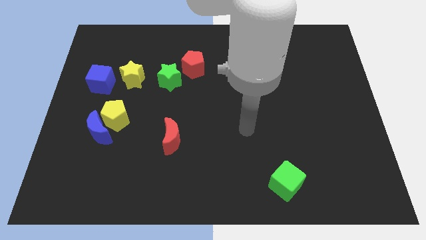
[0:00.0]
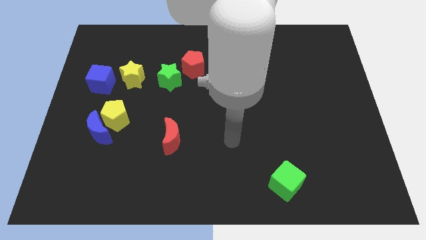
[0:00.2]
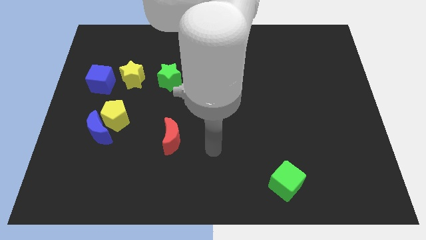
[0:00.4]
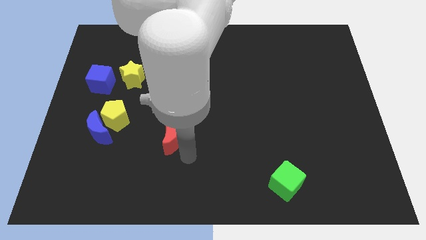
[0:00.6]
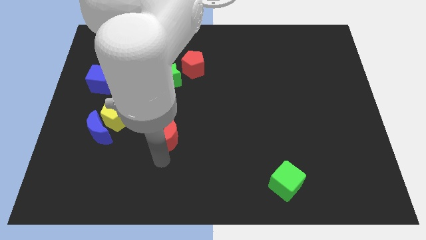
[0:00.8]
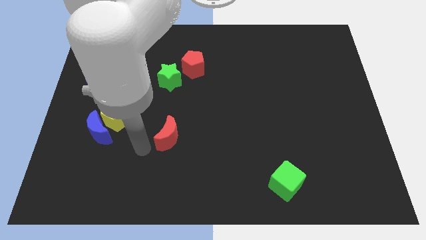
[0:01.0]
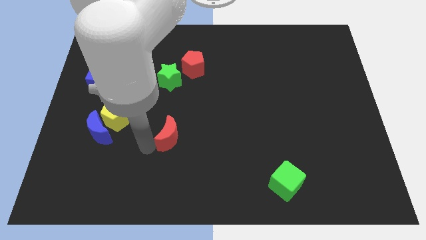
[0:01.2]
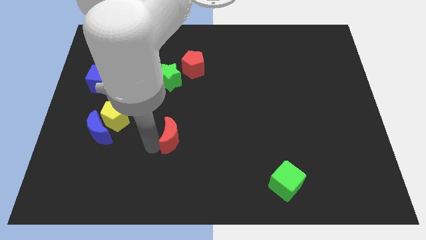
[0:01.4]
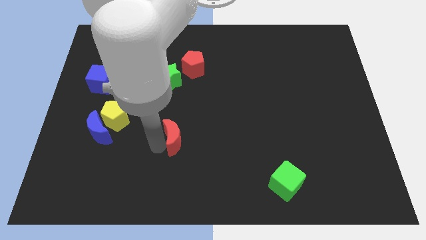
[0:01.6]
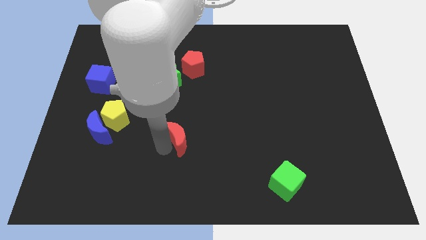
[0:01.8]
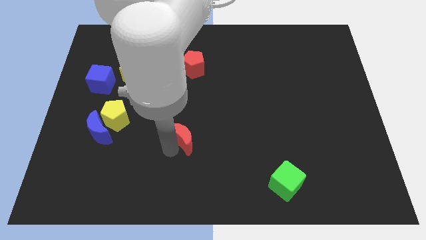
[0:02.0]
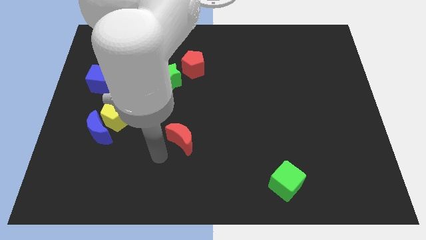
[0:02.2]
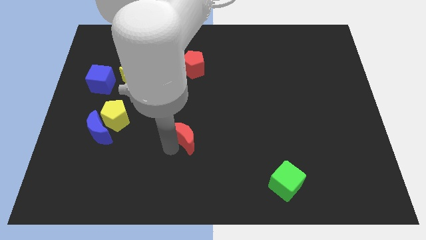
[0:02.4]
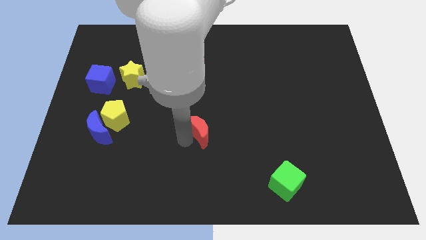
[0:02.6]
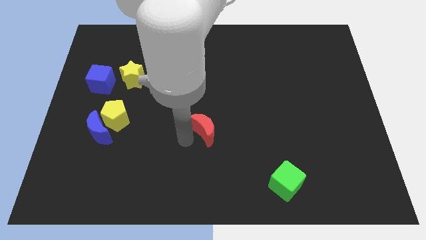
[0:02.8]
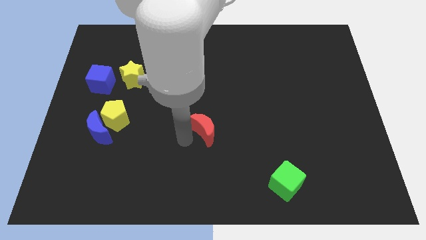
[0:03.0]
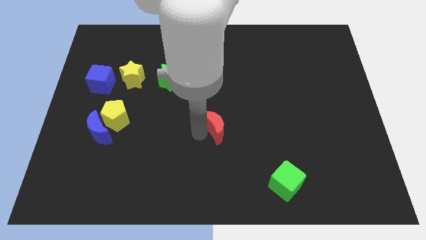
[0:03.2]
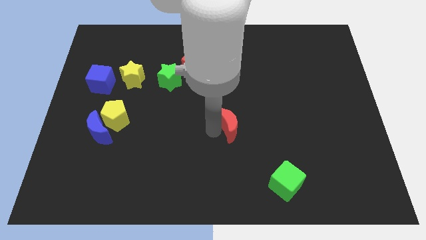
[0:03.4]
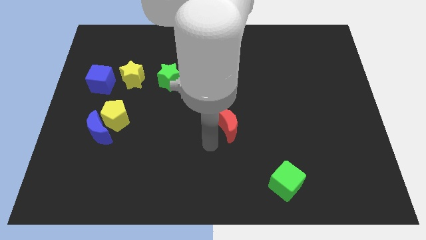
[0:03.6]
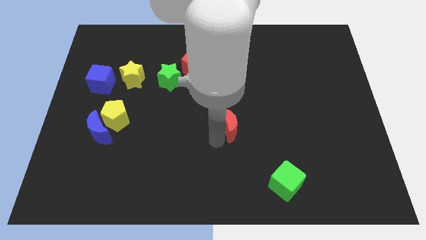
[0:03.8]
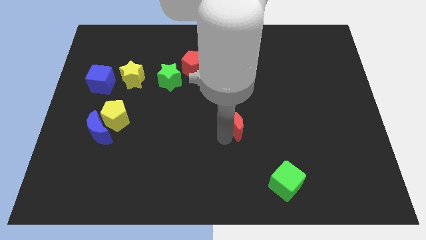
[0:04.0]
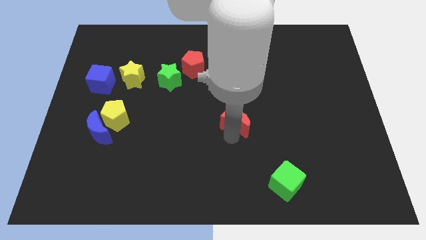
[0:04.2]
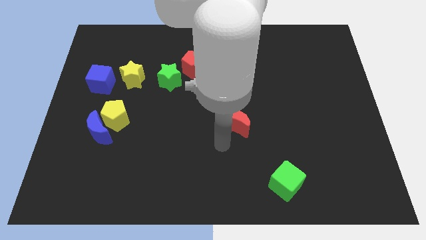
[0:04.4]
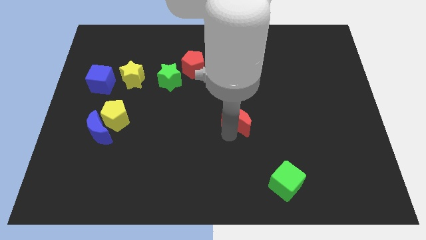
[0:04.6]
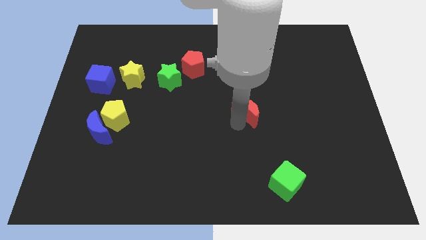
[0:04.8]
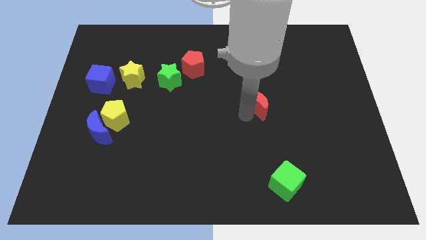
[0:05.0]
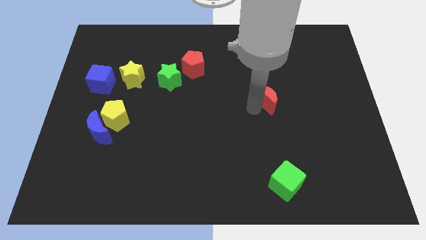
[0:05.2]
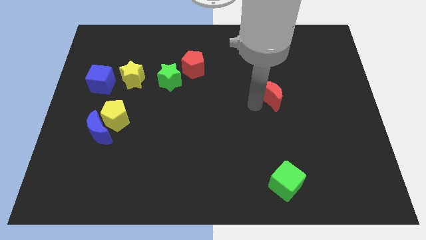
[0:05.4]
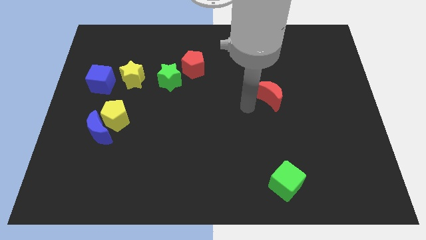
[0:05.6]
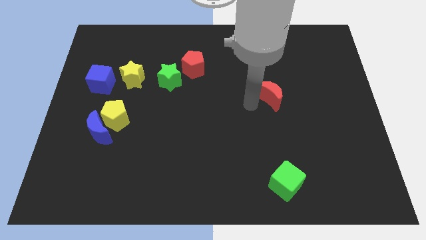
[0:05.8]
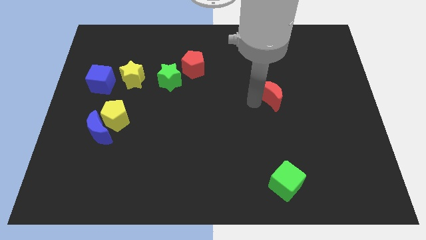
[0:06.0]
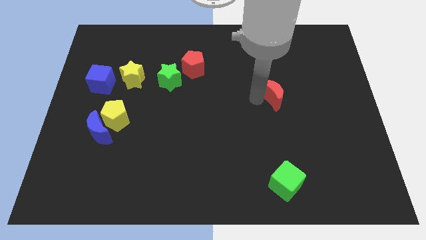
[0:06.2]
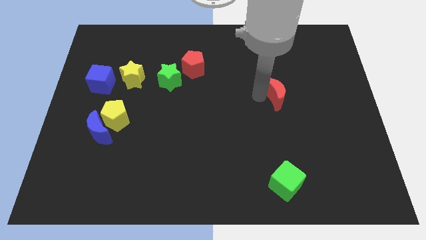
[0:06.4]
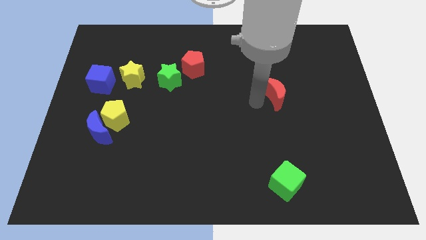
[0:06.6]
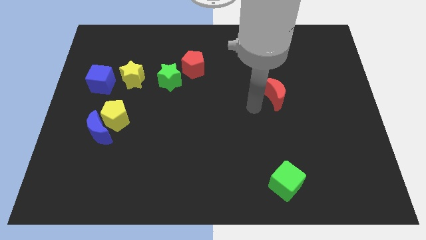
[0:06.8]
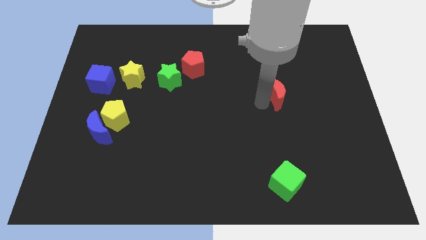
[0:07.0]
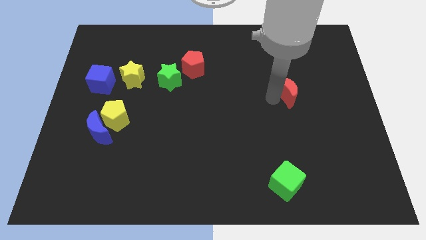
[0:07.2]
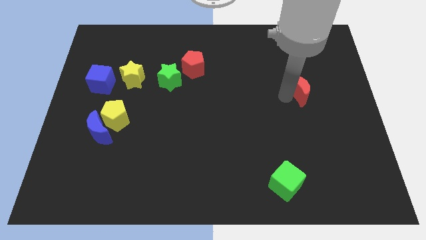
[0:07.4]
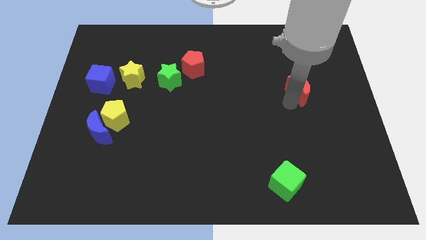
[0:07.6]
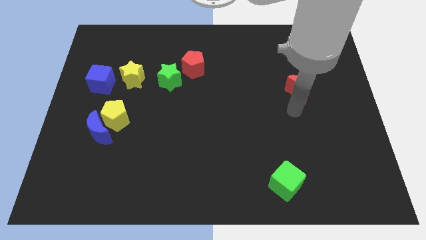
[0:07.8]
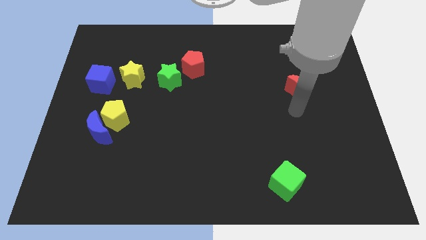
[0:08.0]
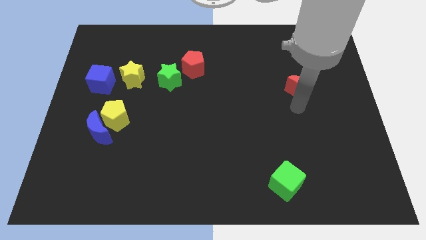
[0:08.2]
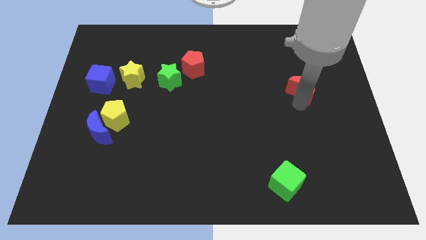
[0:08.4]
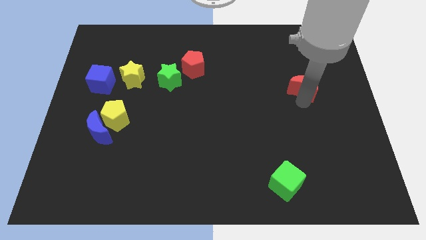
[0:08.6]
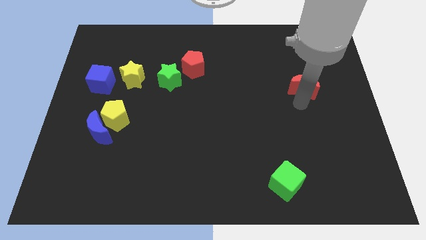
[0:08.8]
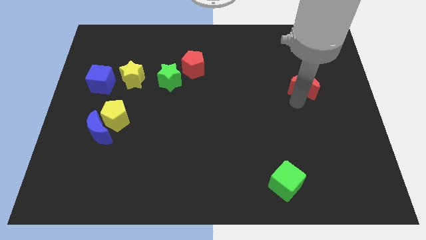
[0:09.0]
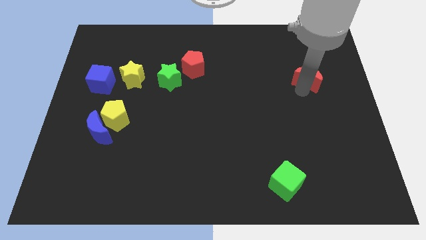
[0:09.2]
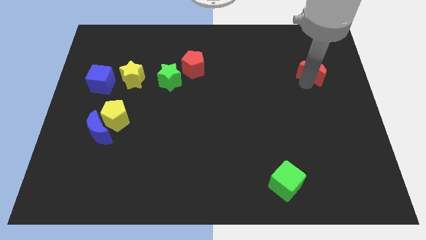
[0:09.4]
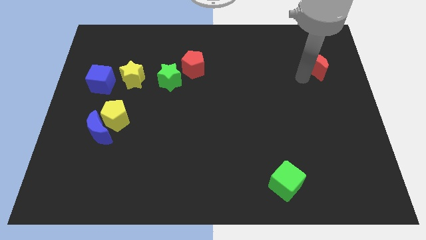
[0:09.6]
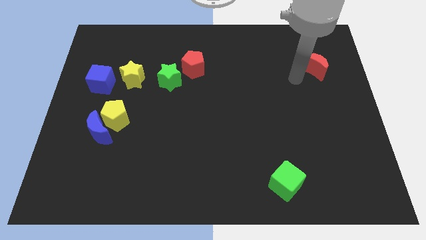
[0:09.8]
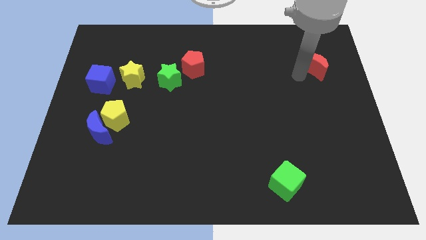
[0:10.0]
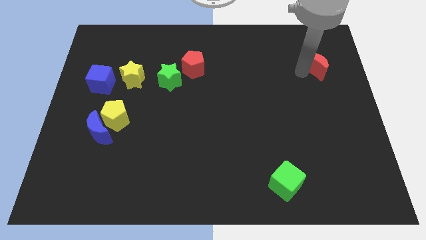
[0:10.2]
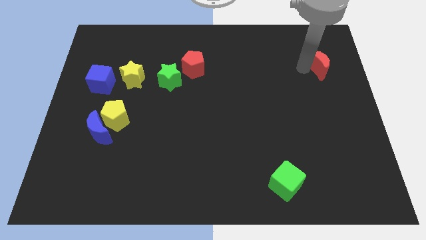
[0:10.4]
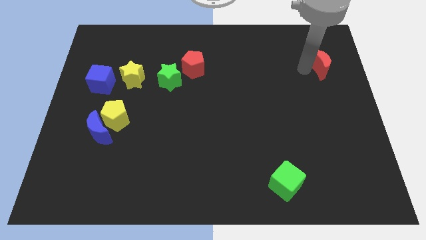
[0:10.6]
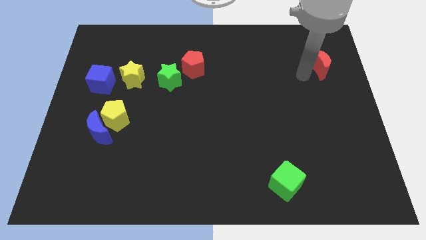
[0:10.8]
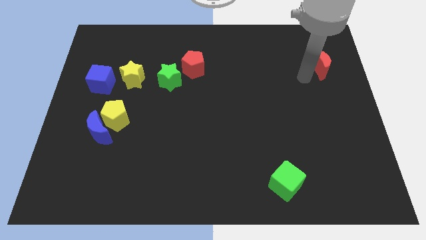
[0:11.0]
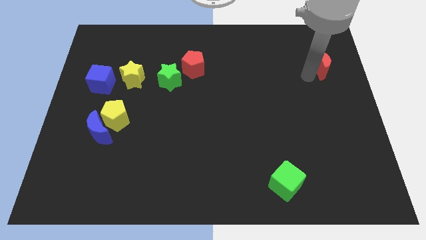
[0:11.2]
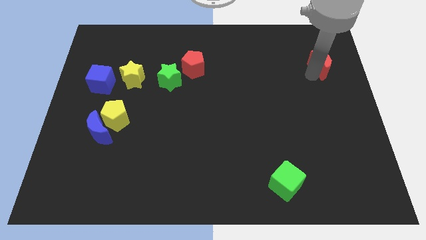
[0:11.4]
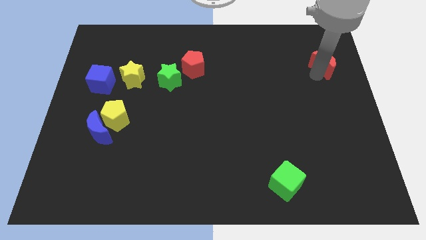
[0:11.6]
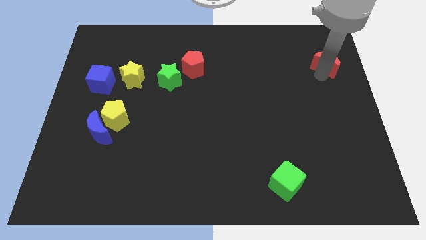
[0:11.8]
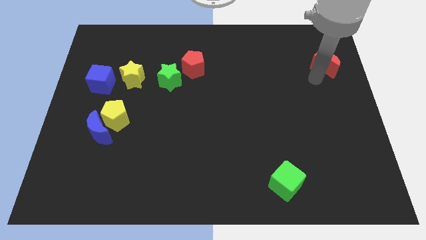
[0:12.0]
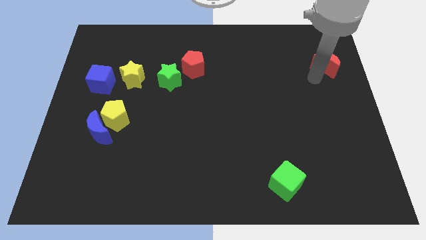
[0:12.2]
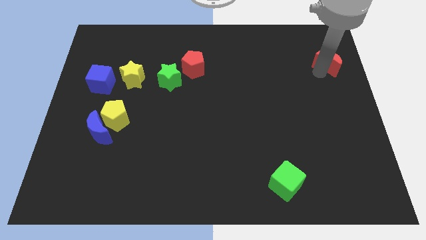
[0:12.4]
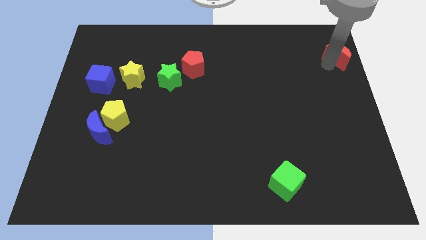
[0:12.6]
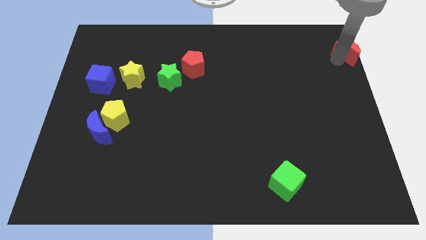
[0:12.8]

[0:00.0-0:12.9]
move the red moon to the top right
